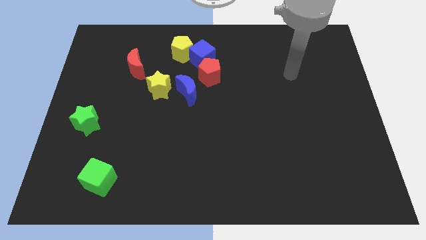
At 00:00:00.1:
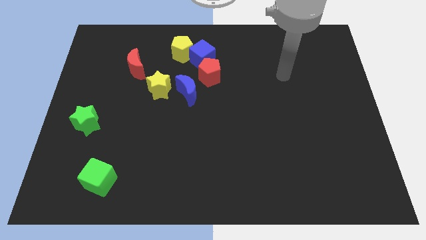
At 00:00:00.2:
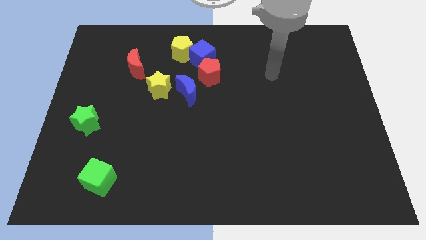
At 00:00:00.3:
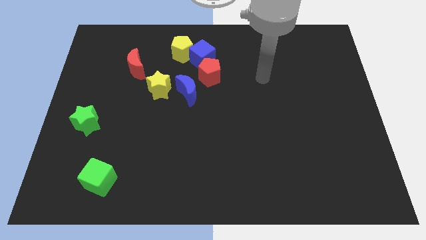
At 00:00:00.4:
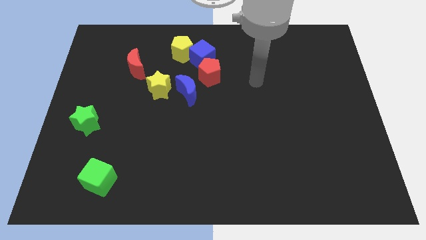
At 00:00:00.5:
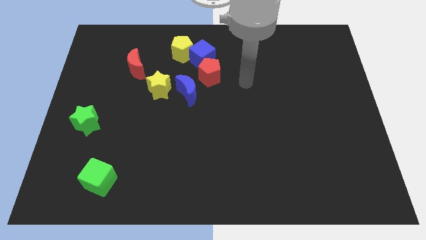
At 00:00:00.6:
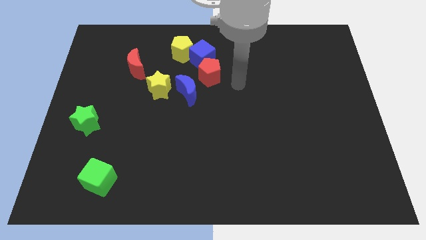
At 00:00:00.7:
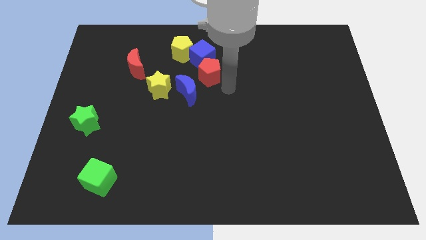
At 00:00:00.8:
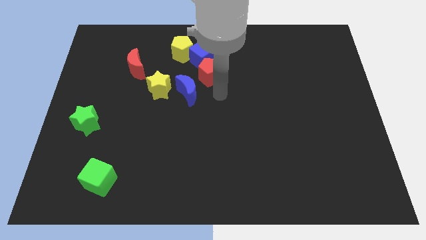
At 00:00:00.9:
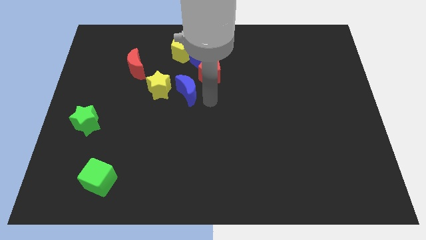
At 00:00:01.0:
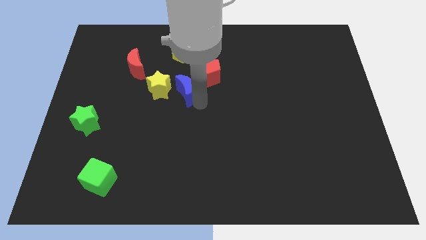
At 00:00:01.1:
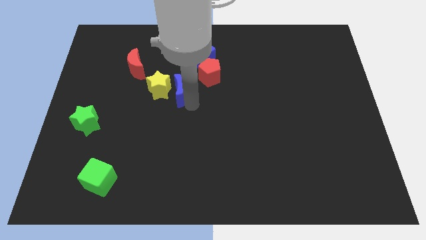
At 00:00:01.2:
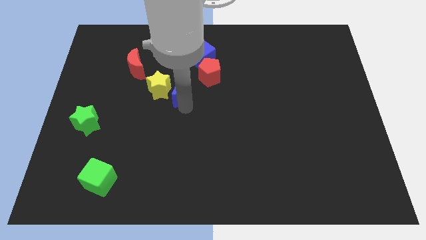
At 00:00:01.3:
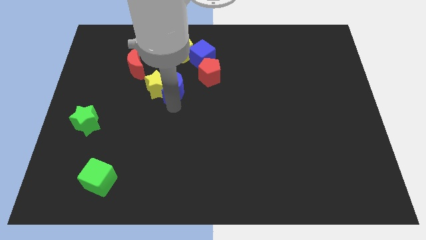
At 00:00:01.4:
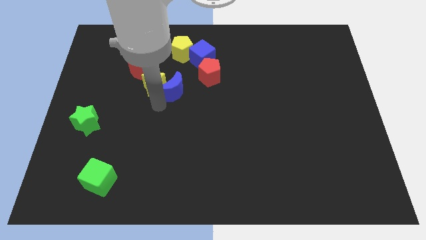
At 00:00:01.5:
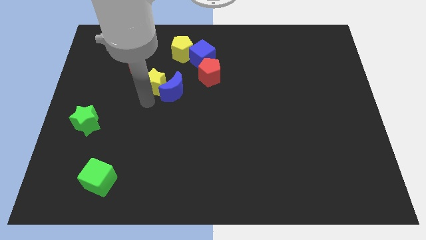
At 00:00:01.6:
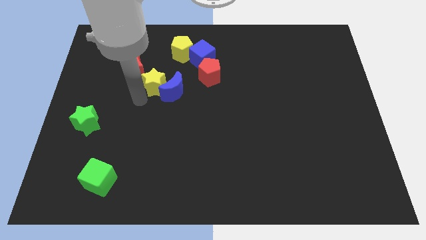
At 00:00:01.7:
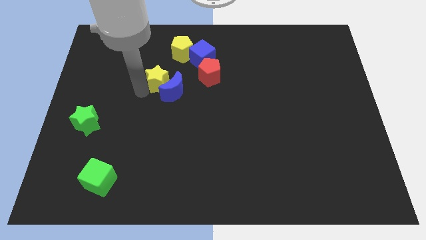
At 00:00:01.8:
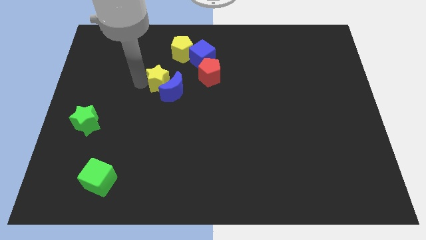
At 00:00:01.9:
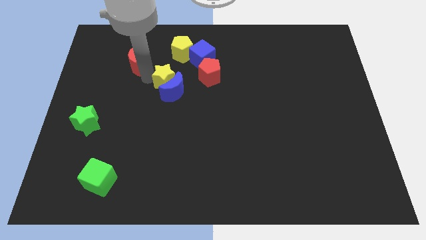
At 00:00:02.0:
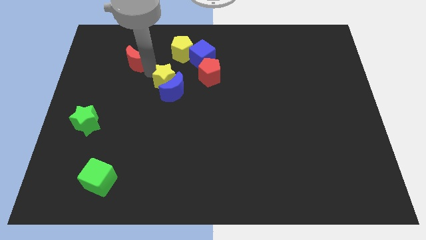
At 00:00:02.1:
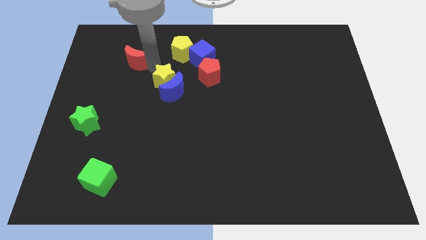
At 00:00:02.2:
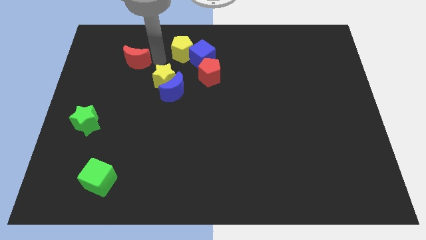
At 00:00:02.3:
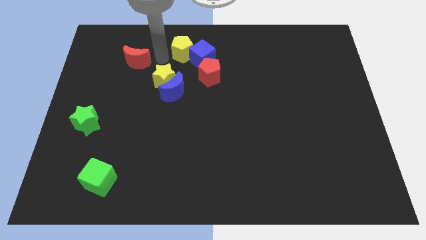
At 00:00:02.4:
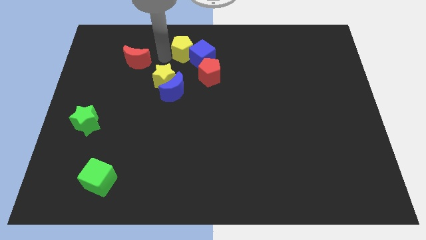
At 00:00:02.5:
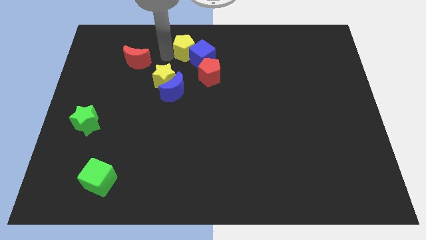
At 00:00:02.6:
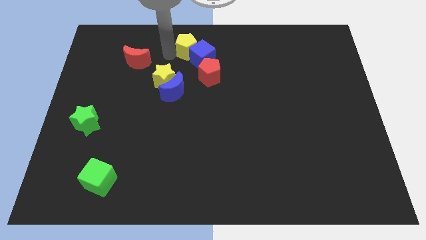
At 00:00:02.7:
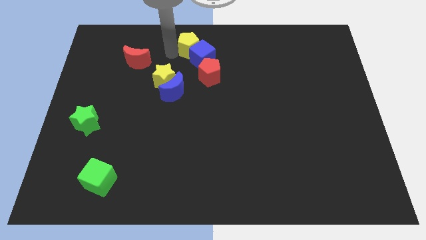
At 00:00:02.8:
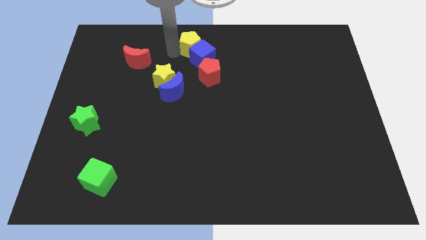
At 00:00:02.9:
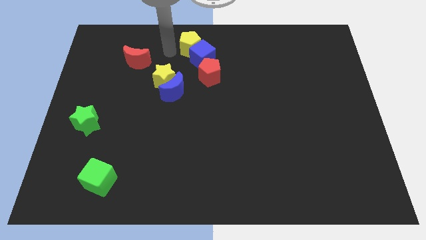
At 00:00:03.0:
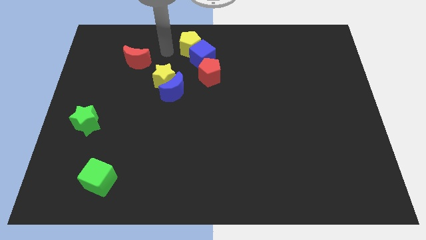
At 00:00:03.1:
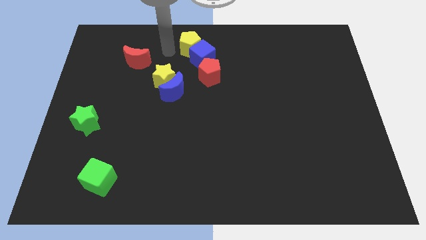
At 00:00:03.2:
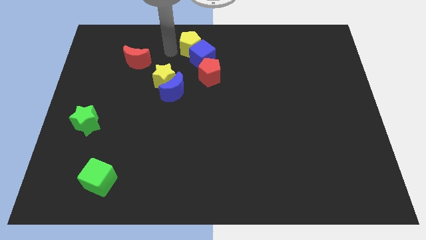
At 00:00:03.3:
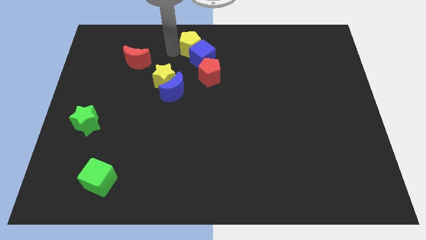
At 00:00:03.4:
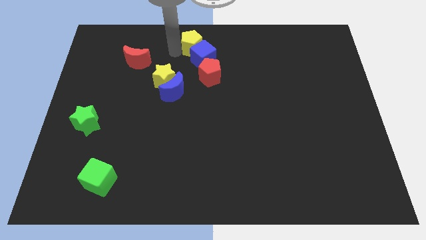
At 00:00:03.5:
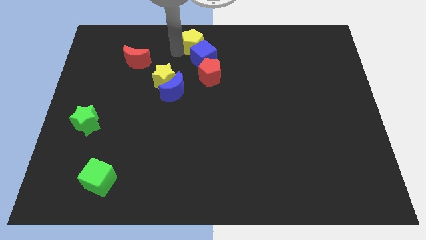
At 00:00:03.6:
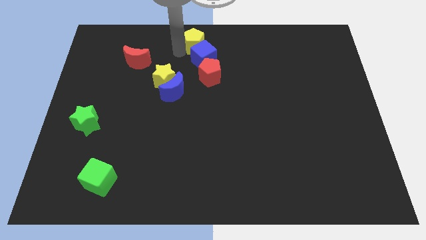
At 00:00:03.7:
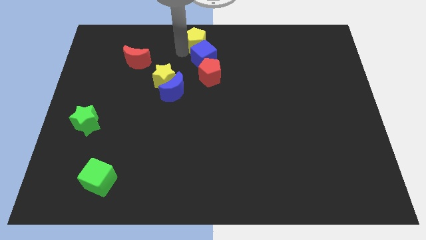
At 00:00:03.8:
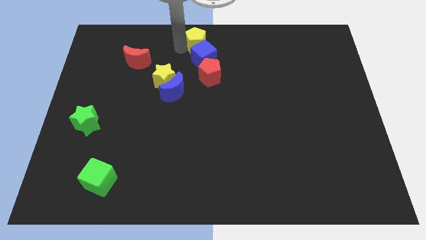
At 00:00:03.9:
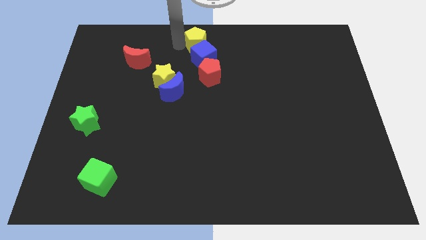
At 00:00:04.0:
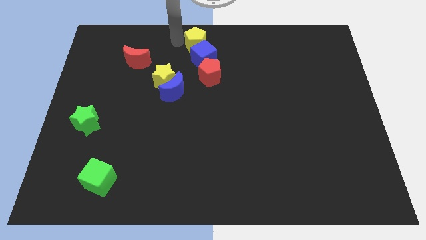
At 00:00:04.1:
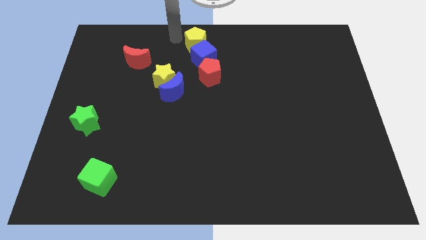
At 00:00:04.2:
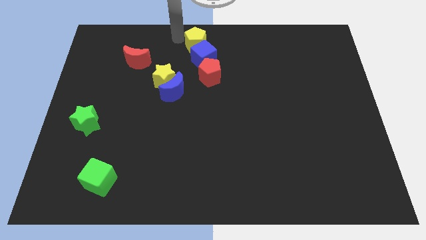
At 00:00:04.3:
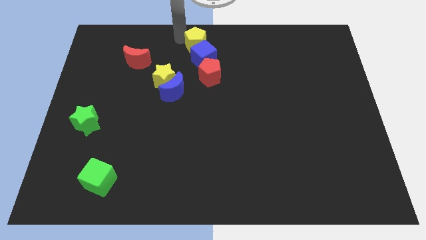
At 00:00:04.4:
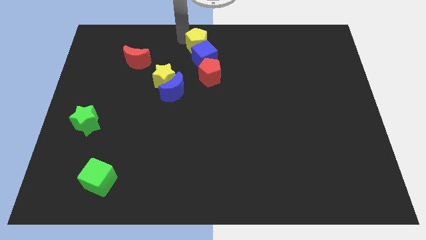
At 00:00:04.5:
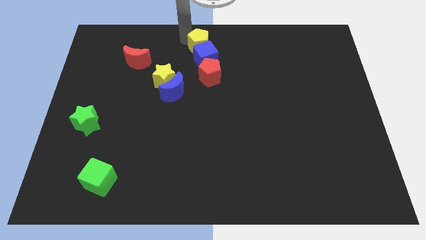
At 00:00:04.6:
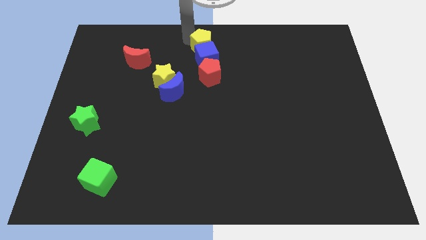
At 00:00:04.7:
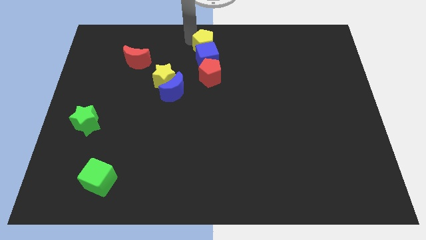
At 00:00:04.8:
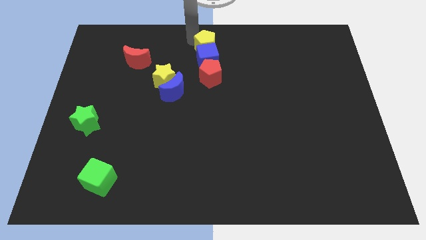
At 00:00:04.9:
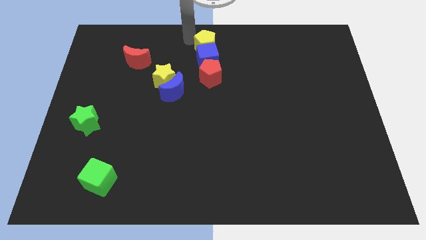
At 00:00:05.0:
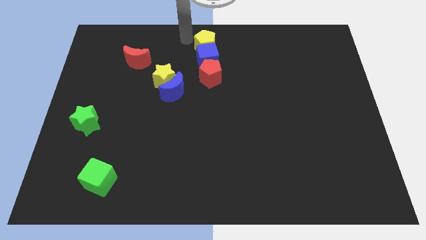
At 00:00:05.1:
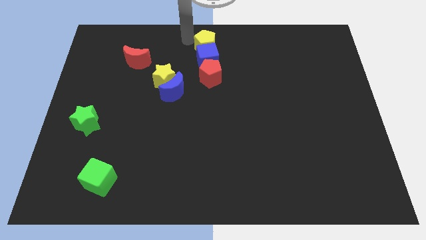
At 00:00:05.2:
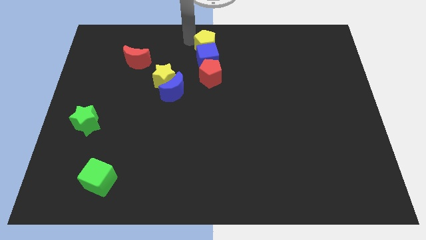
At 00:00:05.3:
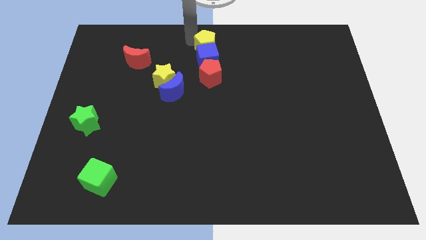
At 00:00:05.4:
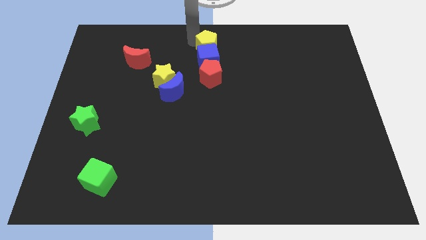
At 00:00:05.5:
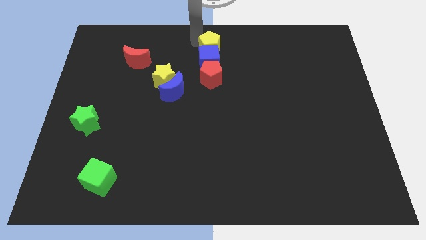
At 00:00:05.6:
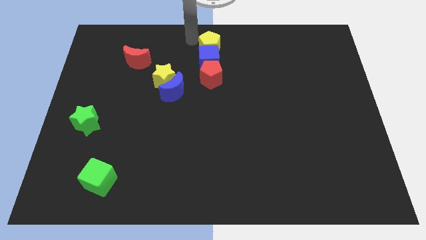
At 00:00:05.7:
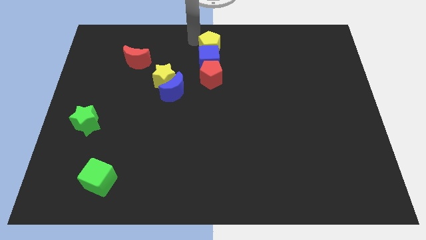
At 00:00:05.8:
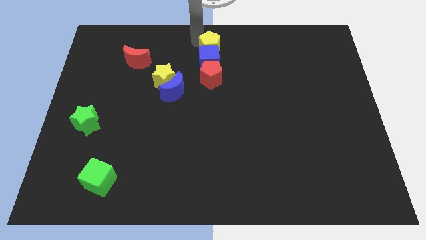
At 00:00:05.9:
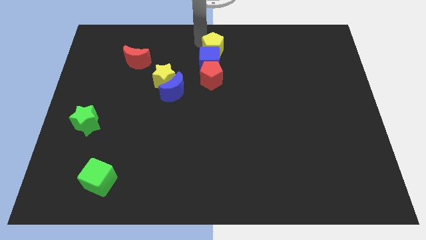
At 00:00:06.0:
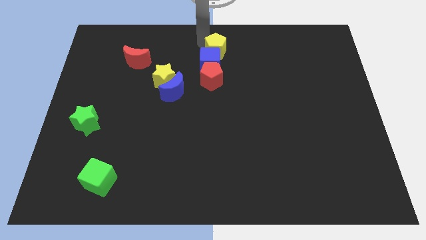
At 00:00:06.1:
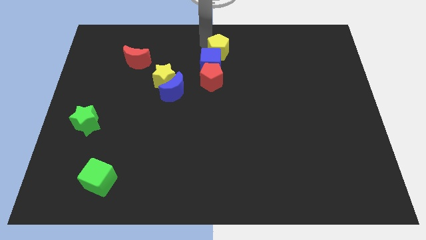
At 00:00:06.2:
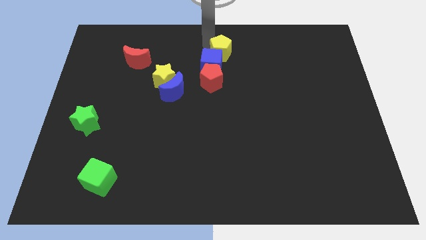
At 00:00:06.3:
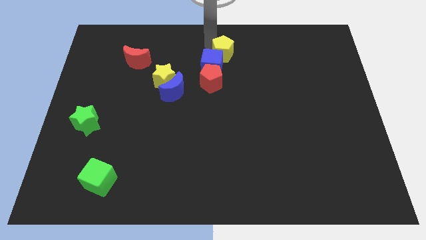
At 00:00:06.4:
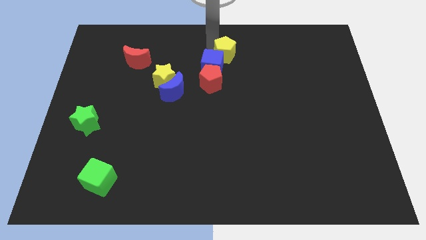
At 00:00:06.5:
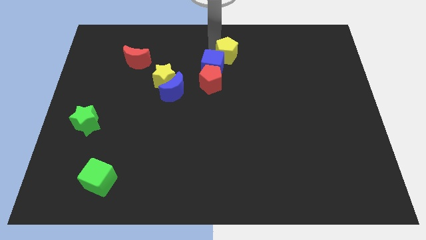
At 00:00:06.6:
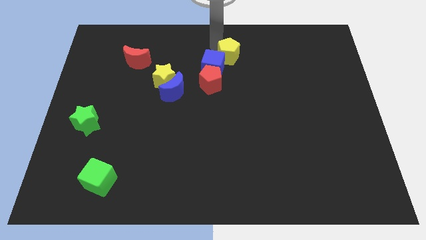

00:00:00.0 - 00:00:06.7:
slide the yellow pentagon downwards and then right somewhat

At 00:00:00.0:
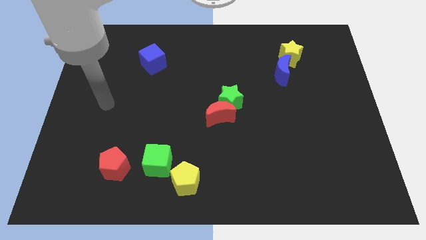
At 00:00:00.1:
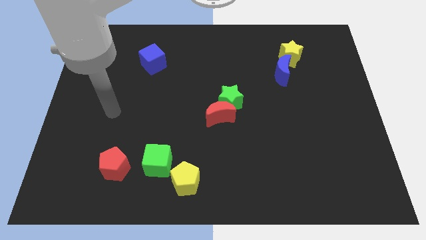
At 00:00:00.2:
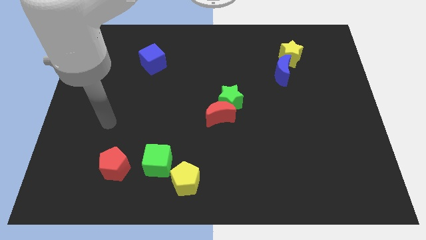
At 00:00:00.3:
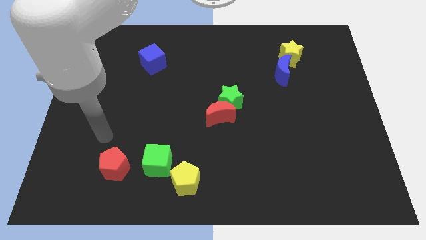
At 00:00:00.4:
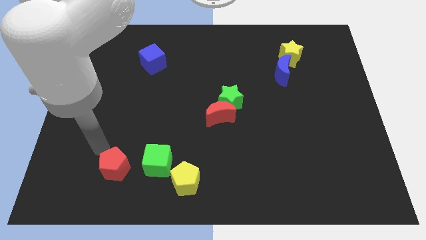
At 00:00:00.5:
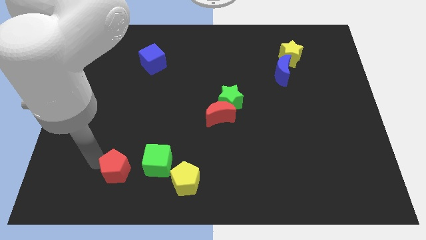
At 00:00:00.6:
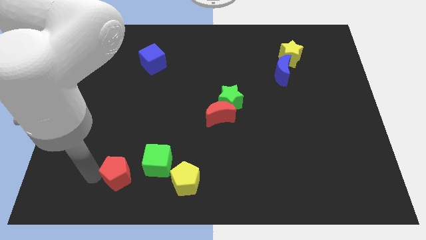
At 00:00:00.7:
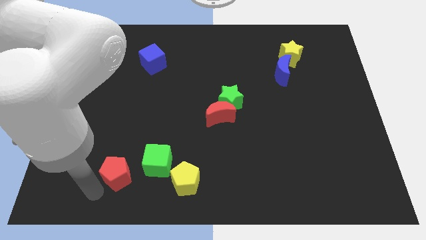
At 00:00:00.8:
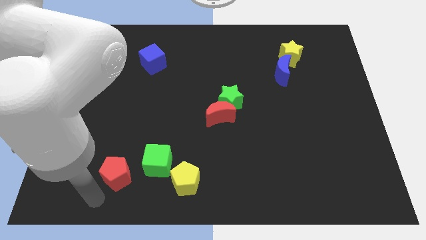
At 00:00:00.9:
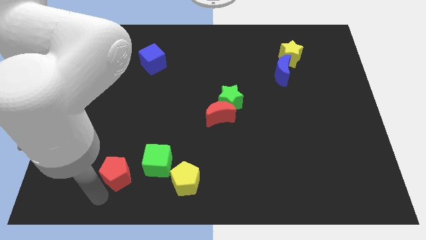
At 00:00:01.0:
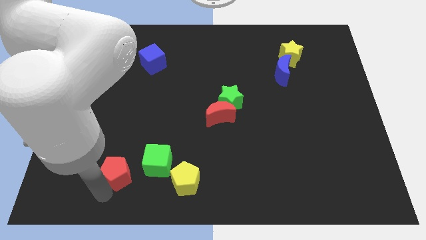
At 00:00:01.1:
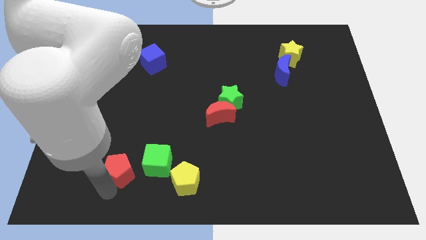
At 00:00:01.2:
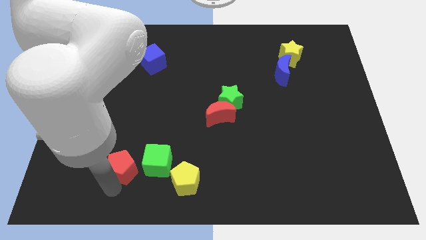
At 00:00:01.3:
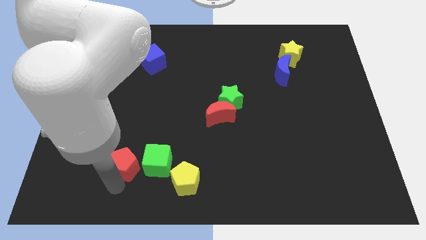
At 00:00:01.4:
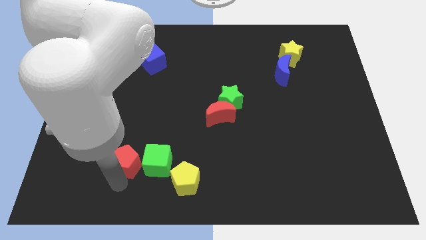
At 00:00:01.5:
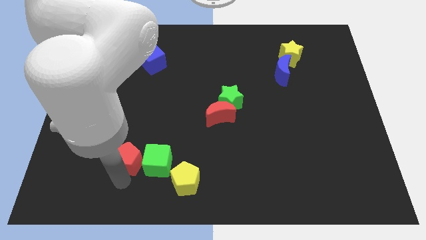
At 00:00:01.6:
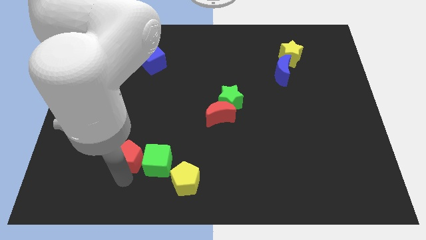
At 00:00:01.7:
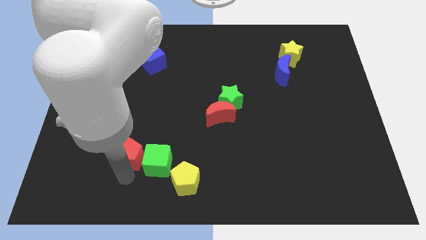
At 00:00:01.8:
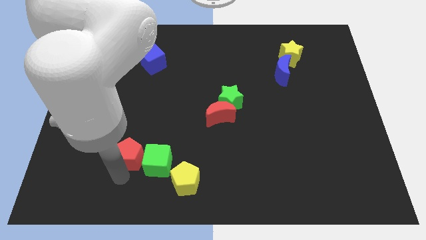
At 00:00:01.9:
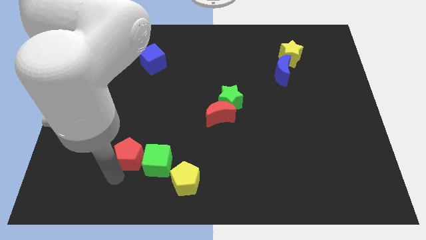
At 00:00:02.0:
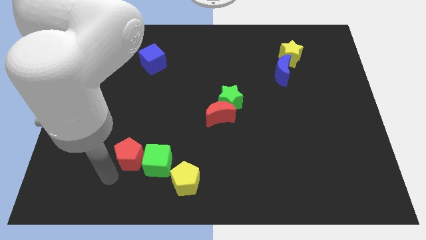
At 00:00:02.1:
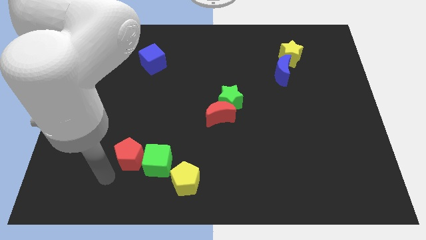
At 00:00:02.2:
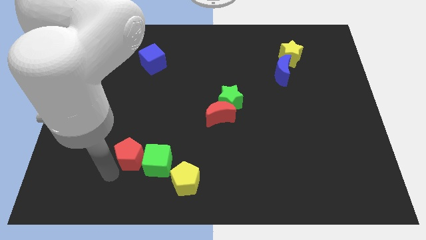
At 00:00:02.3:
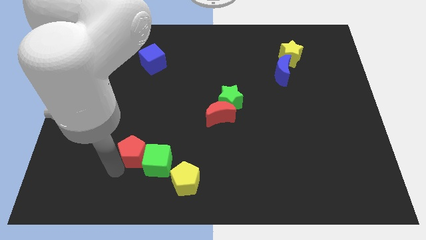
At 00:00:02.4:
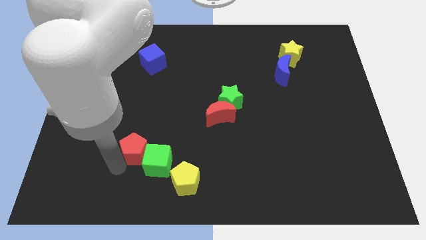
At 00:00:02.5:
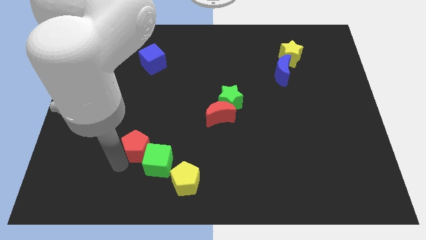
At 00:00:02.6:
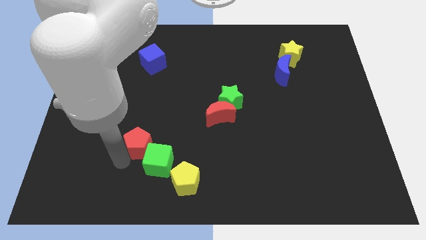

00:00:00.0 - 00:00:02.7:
slide the red pentagon somewhat diagonally up and to the right
